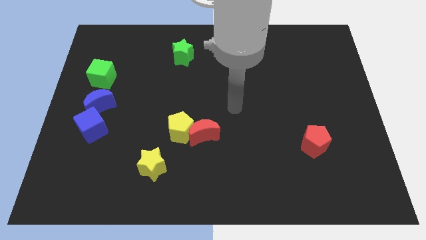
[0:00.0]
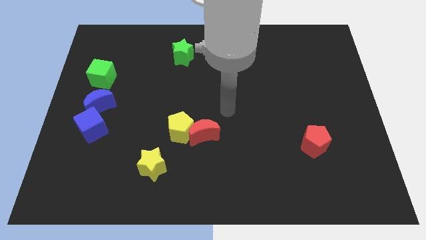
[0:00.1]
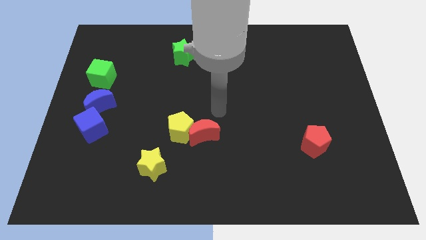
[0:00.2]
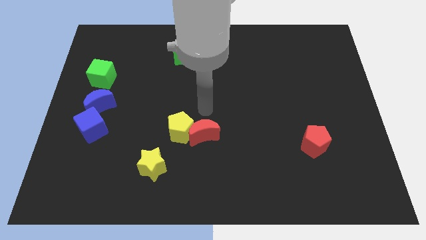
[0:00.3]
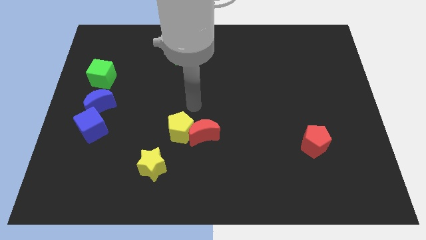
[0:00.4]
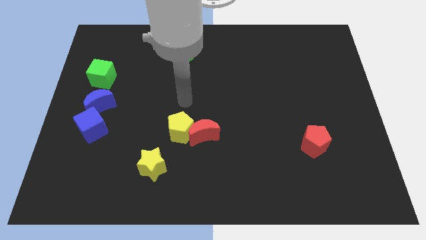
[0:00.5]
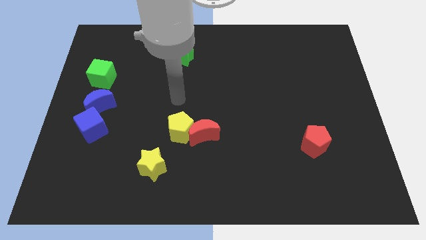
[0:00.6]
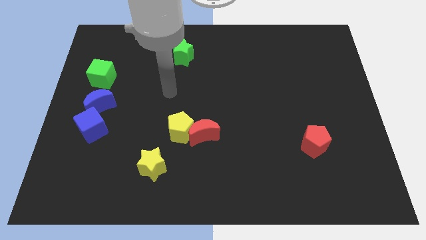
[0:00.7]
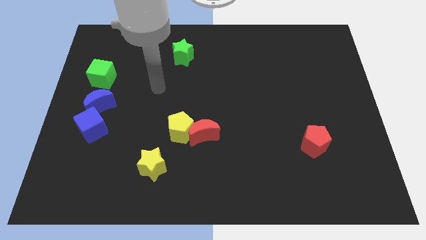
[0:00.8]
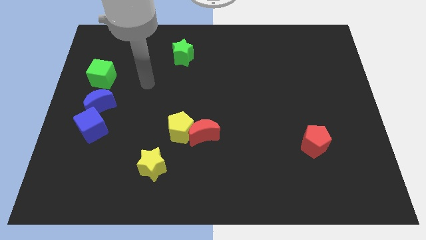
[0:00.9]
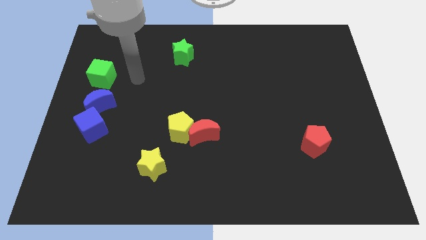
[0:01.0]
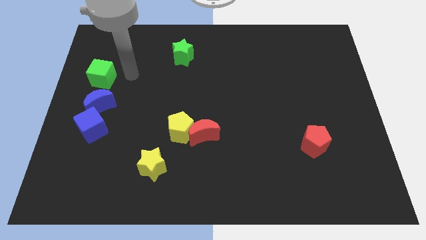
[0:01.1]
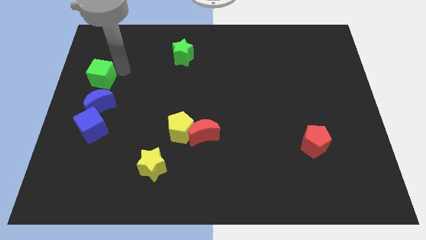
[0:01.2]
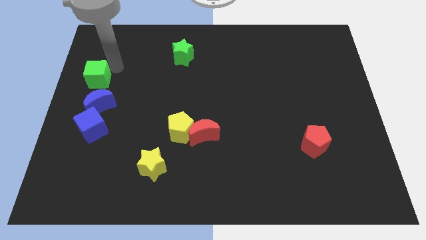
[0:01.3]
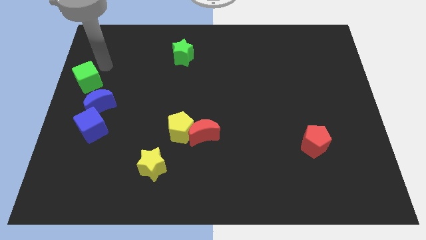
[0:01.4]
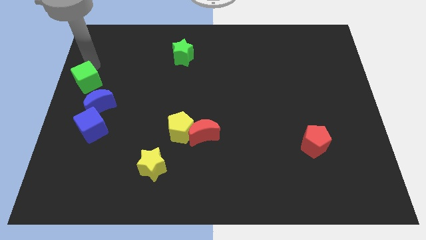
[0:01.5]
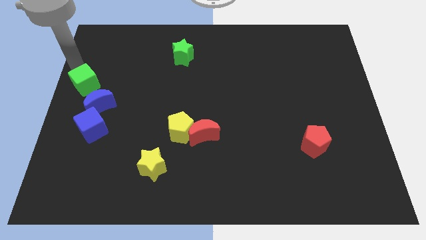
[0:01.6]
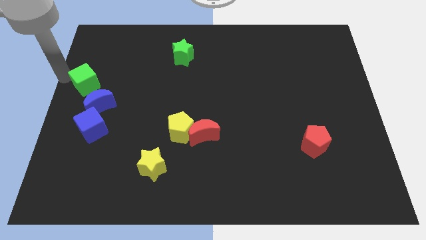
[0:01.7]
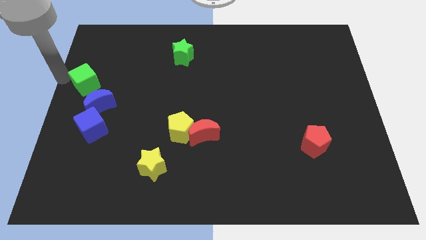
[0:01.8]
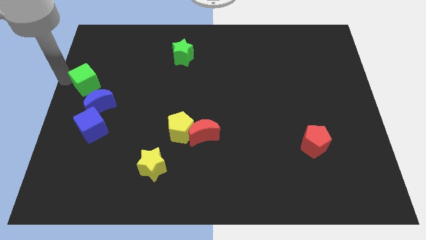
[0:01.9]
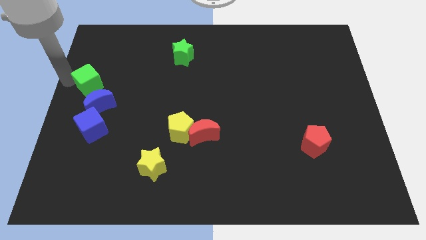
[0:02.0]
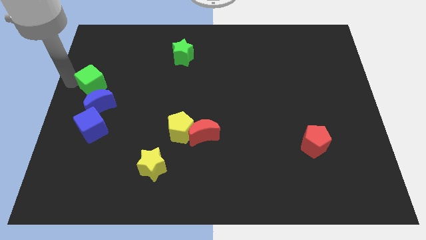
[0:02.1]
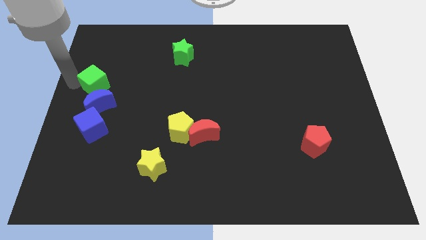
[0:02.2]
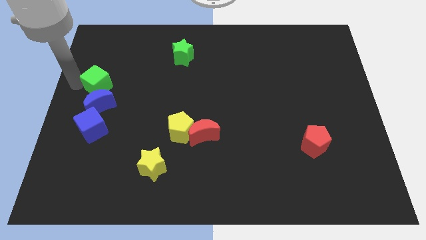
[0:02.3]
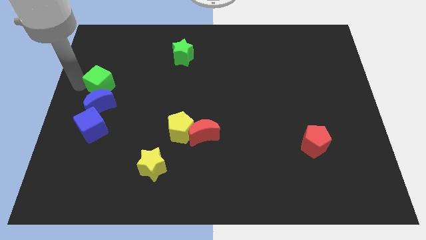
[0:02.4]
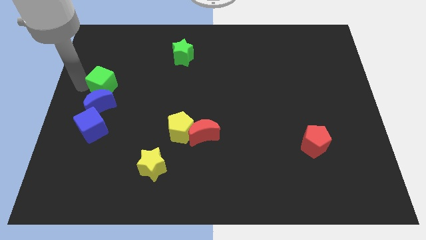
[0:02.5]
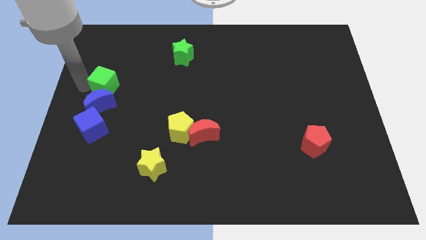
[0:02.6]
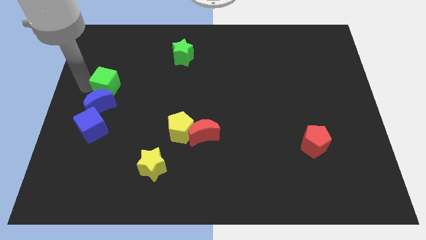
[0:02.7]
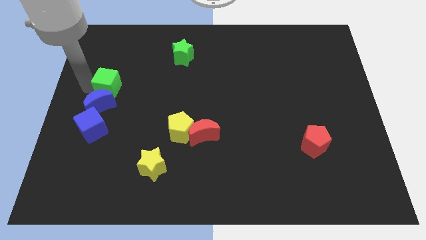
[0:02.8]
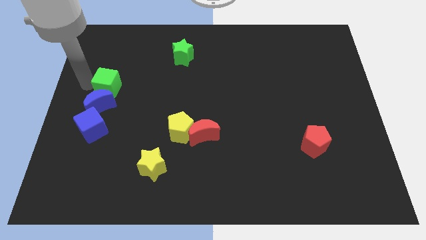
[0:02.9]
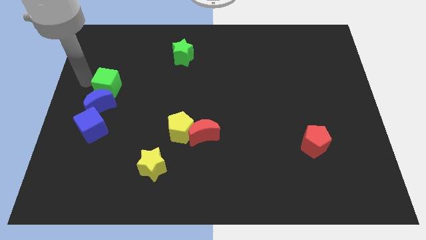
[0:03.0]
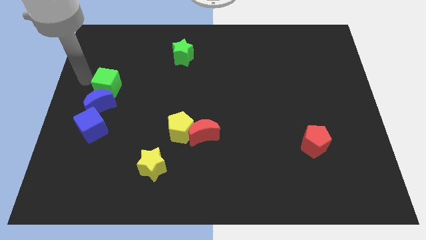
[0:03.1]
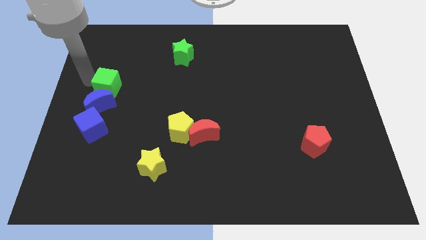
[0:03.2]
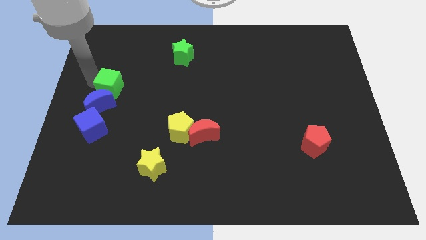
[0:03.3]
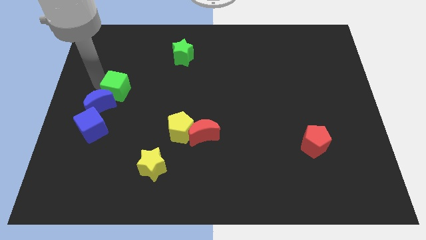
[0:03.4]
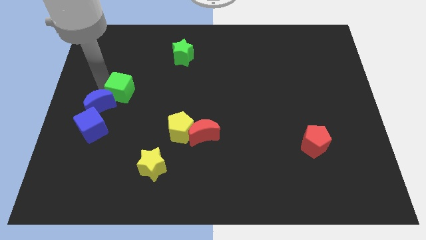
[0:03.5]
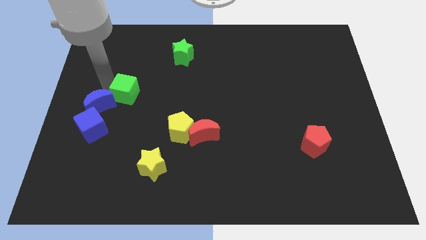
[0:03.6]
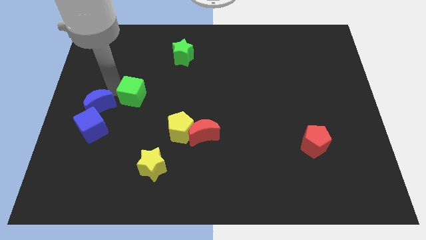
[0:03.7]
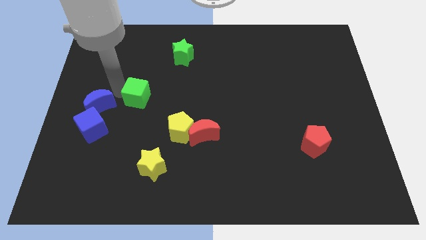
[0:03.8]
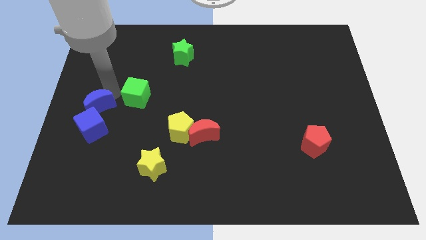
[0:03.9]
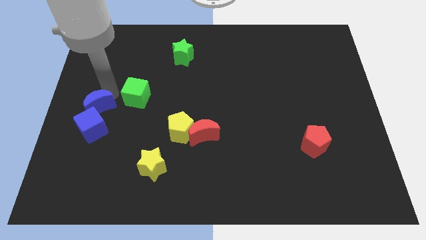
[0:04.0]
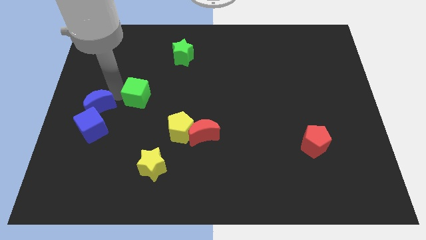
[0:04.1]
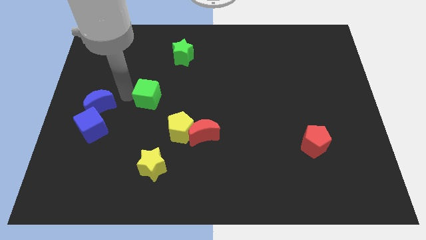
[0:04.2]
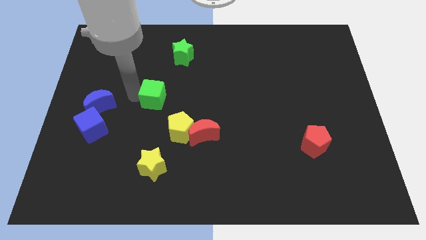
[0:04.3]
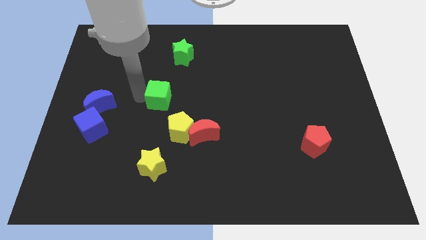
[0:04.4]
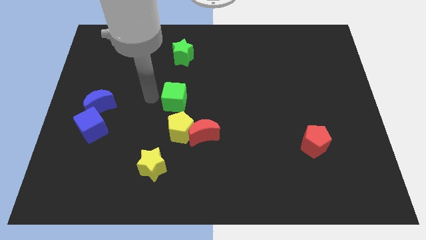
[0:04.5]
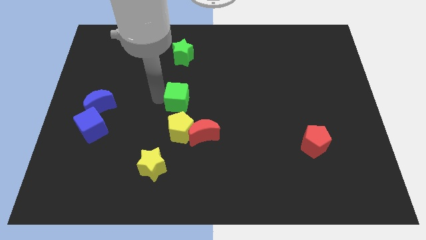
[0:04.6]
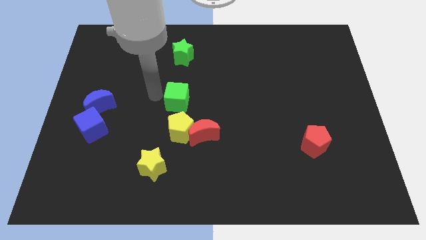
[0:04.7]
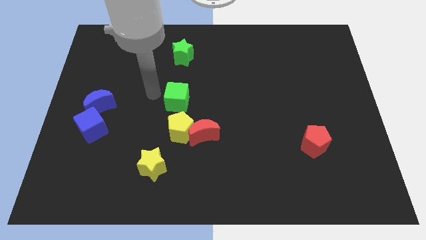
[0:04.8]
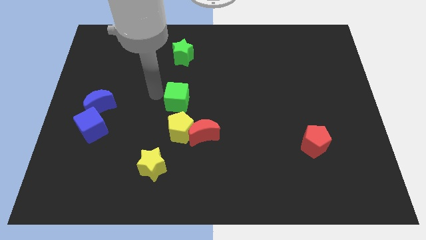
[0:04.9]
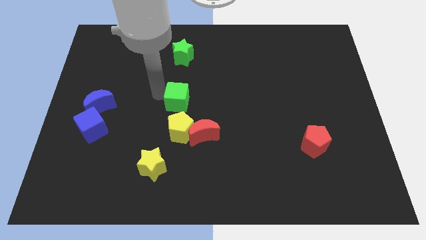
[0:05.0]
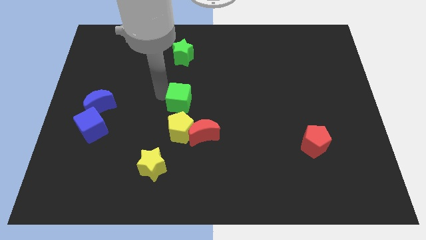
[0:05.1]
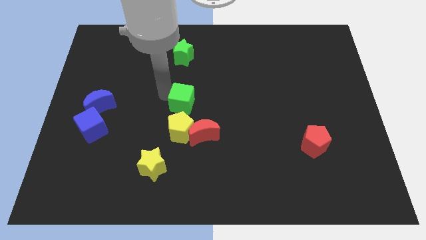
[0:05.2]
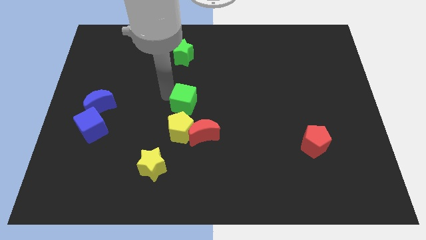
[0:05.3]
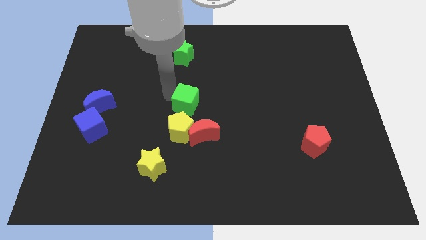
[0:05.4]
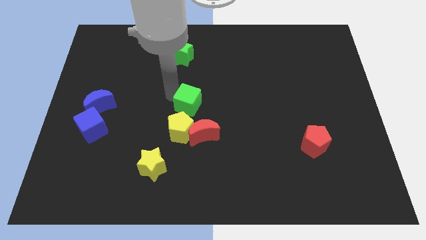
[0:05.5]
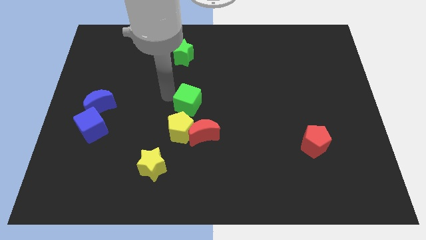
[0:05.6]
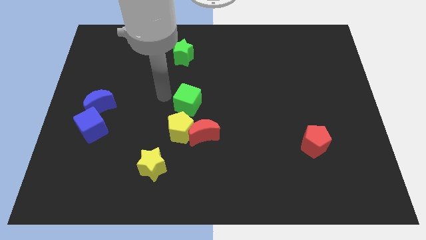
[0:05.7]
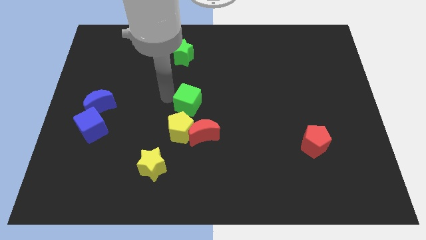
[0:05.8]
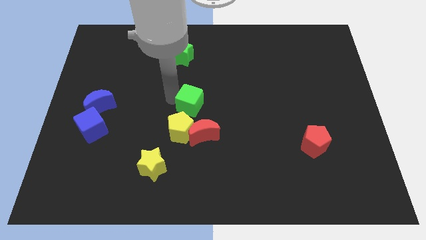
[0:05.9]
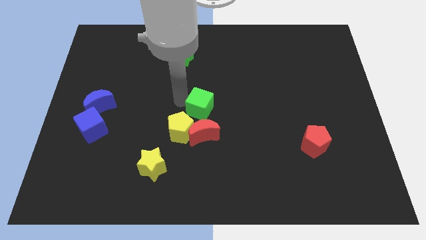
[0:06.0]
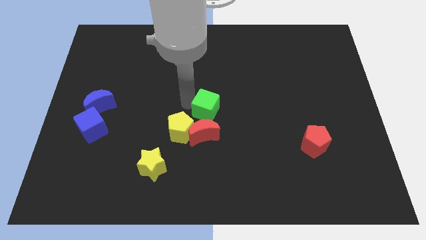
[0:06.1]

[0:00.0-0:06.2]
slide the green cube to the top right of the red moon

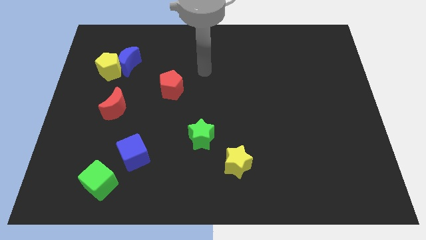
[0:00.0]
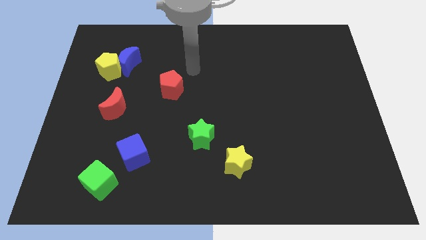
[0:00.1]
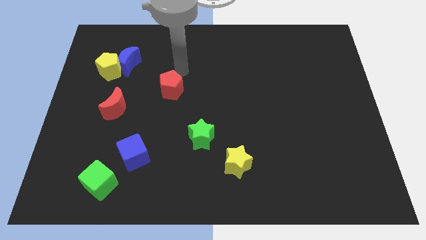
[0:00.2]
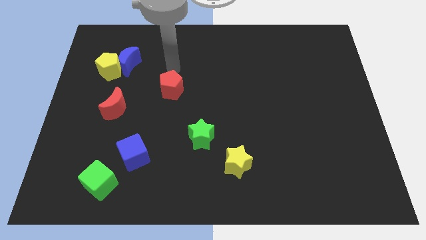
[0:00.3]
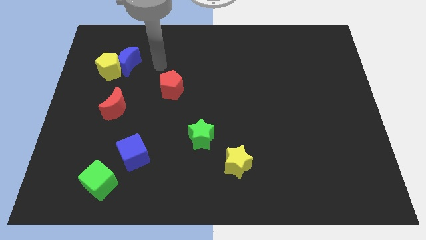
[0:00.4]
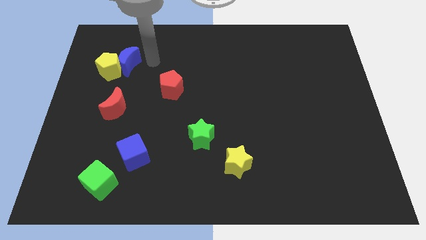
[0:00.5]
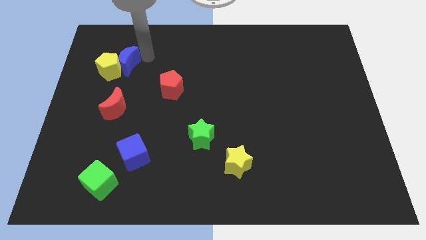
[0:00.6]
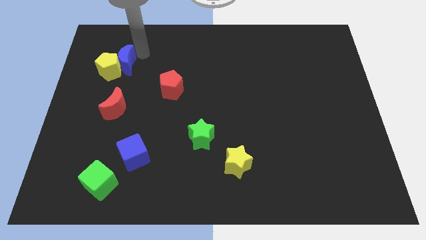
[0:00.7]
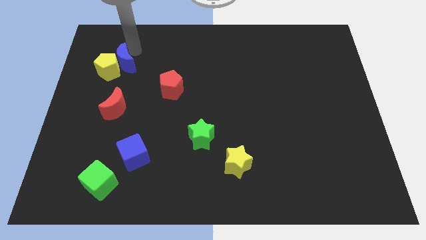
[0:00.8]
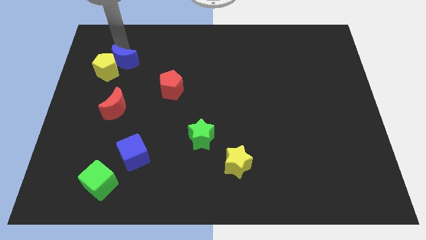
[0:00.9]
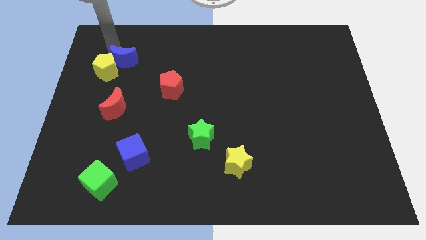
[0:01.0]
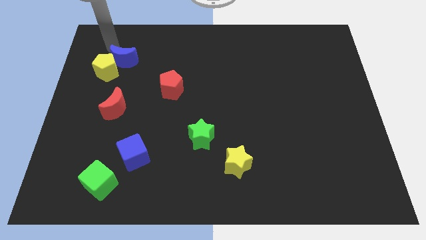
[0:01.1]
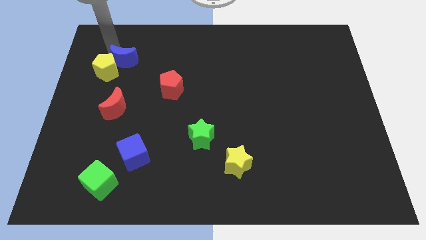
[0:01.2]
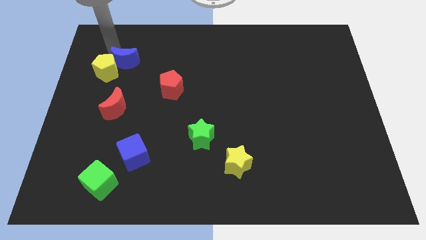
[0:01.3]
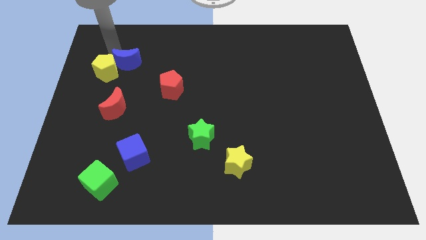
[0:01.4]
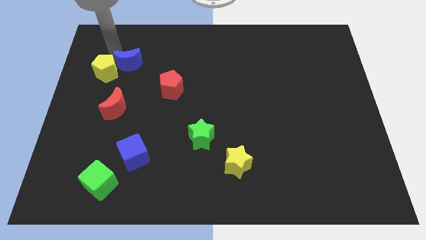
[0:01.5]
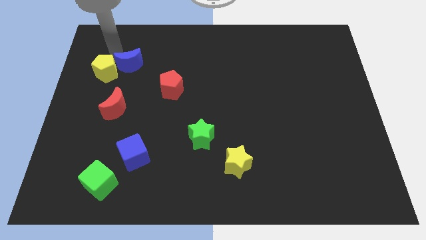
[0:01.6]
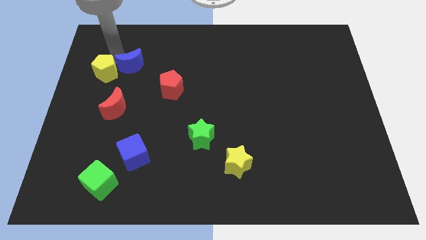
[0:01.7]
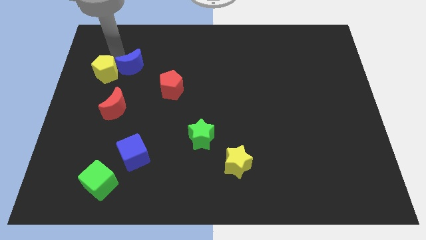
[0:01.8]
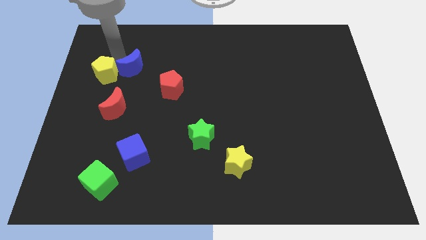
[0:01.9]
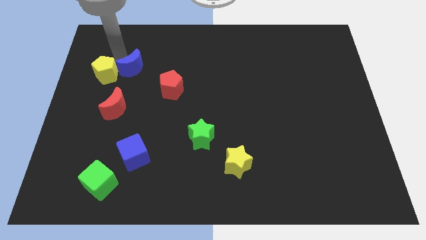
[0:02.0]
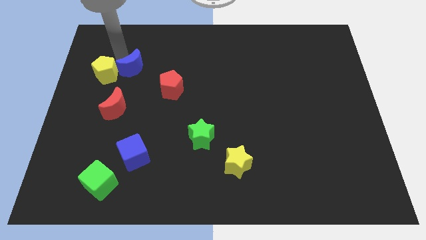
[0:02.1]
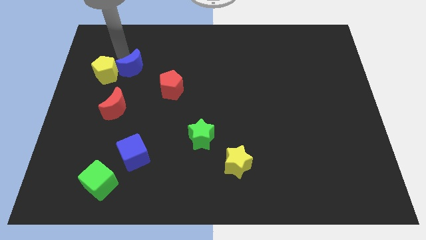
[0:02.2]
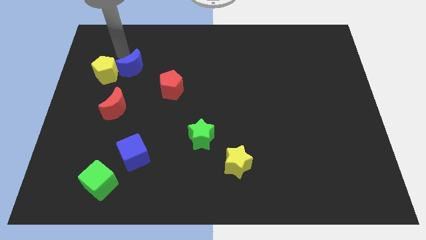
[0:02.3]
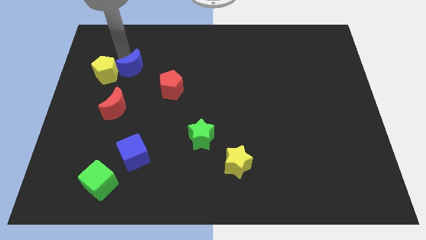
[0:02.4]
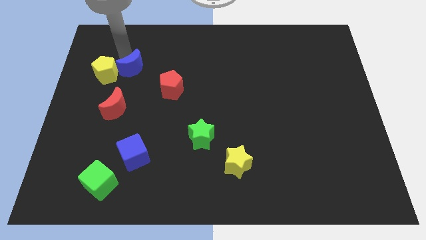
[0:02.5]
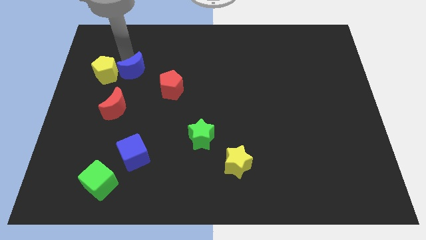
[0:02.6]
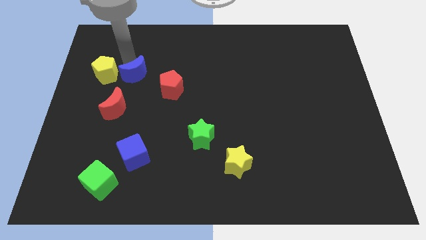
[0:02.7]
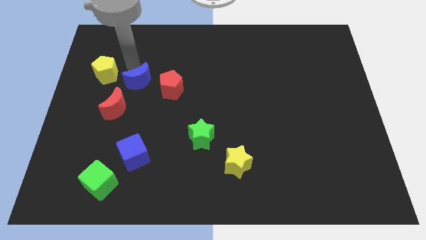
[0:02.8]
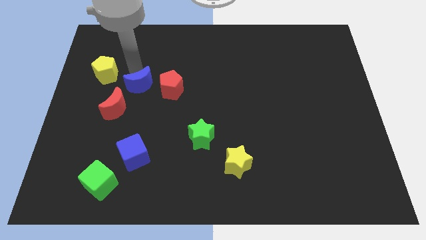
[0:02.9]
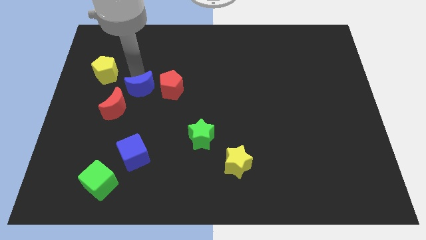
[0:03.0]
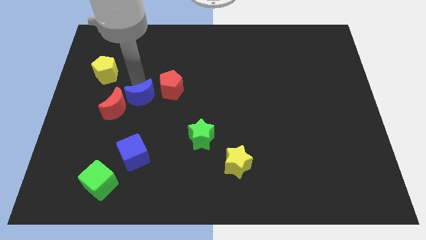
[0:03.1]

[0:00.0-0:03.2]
push the blue moon just right of the red moon
